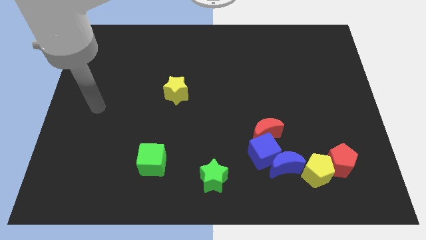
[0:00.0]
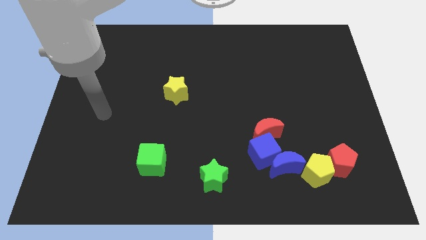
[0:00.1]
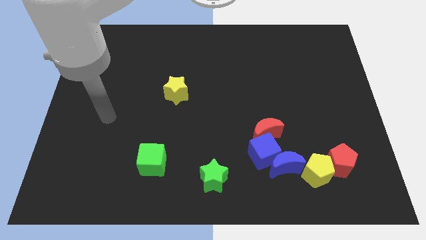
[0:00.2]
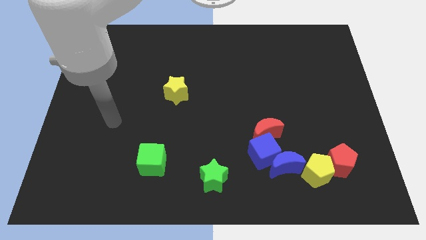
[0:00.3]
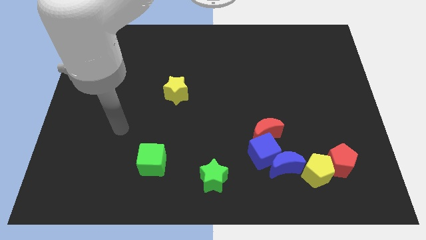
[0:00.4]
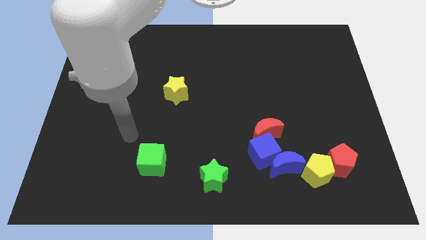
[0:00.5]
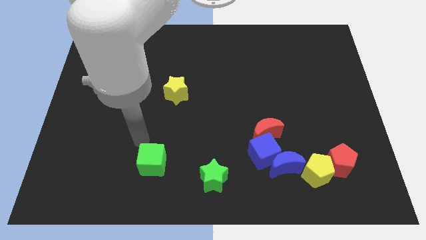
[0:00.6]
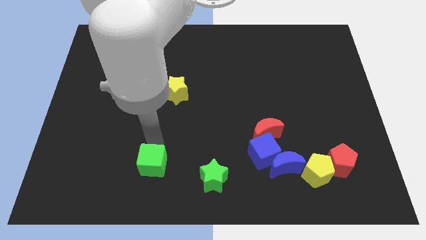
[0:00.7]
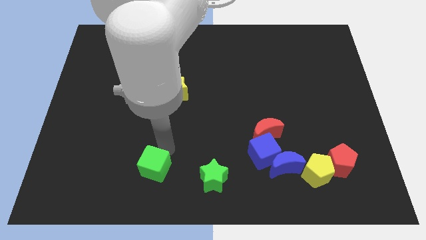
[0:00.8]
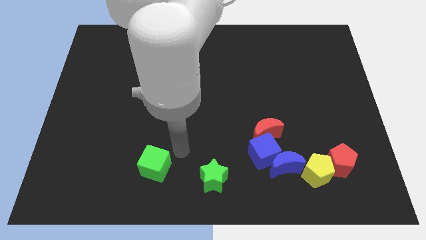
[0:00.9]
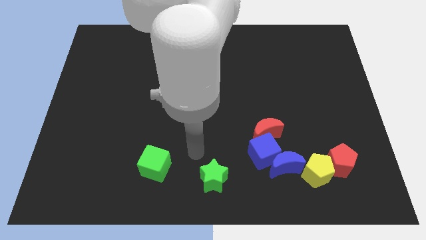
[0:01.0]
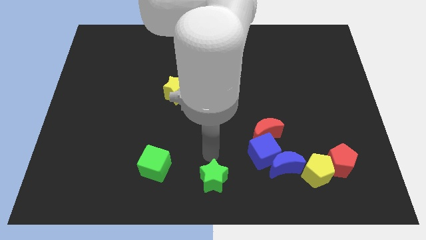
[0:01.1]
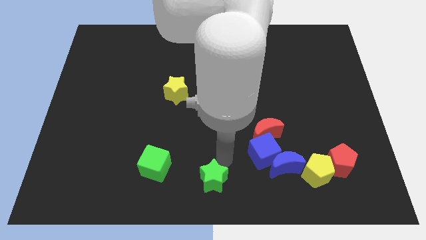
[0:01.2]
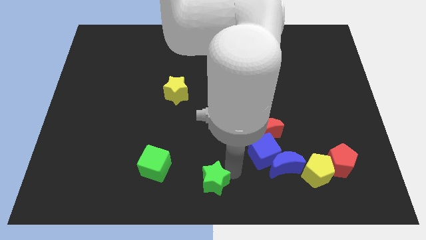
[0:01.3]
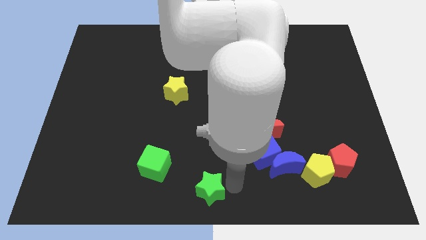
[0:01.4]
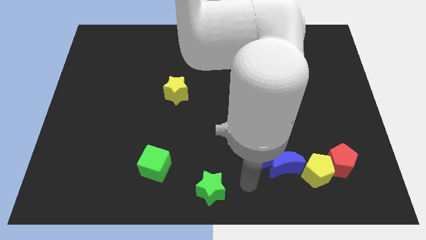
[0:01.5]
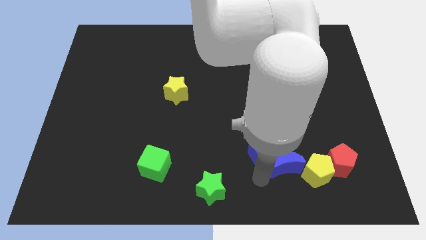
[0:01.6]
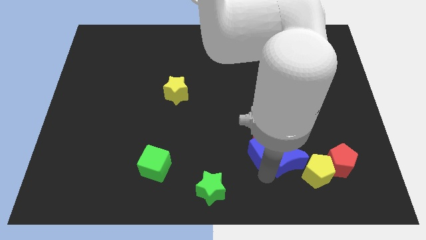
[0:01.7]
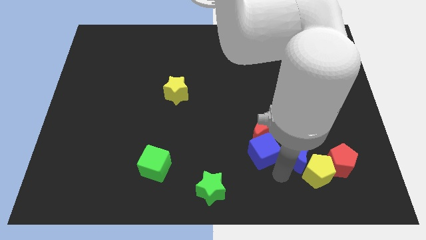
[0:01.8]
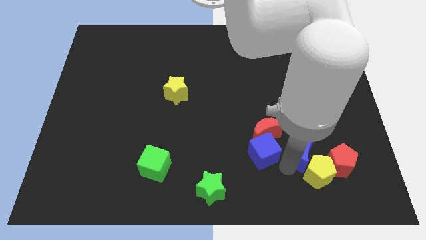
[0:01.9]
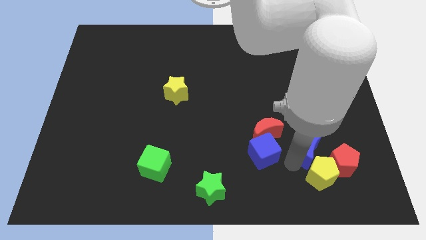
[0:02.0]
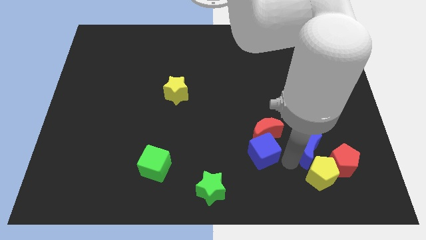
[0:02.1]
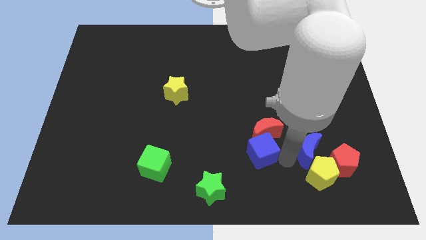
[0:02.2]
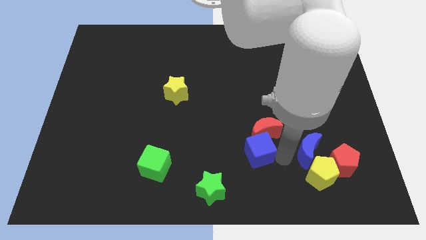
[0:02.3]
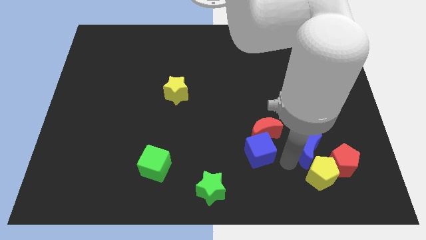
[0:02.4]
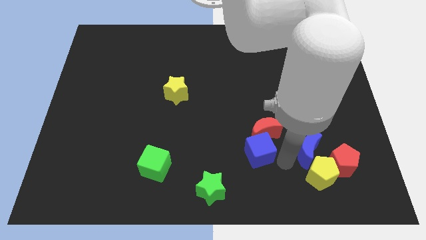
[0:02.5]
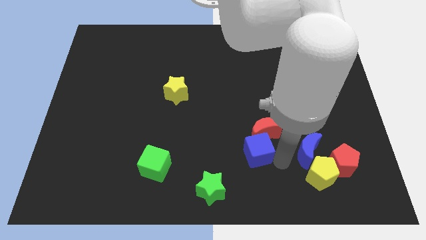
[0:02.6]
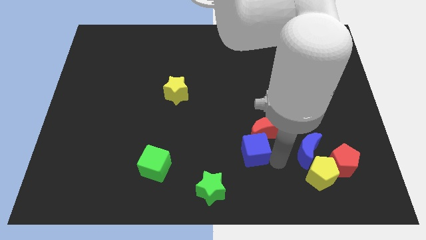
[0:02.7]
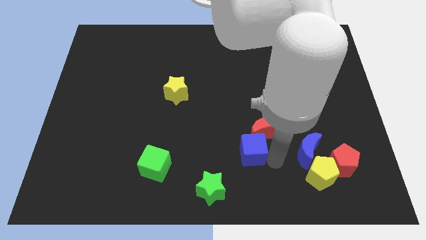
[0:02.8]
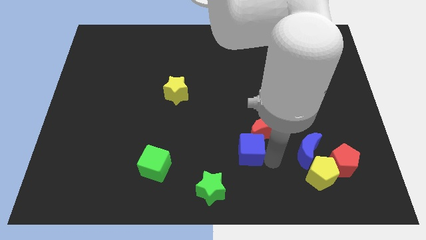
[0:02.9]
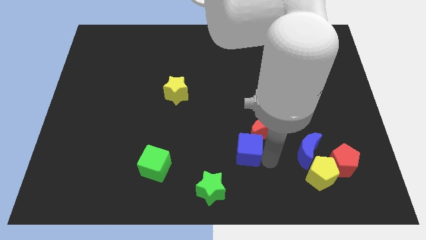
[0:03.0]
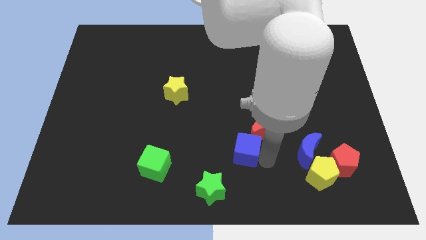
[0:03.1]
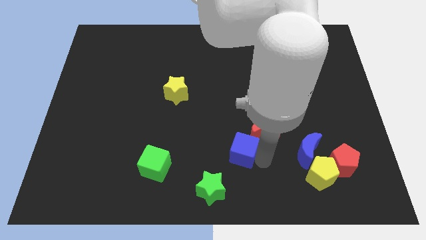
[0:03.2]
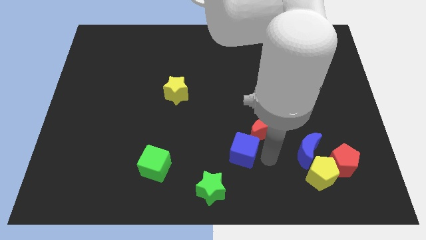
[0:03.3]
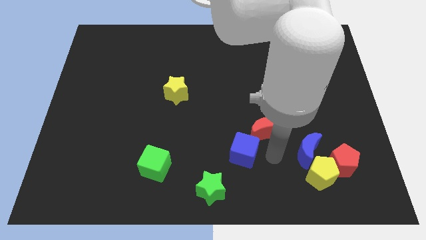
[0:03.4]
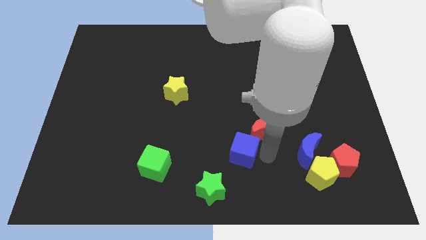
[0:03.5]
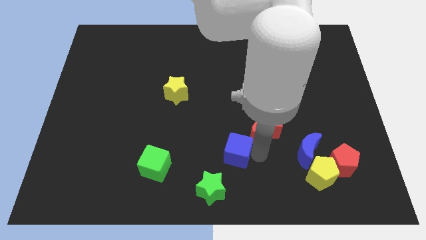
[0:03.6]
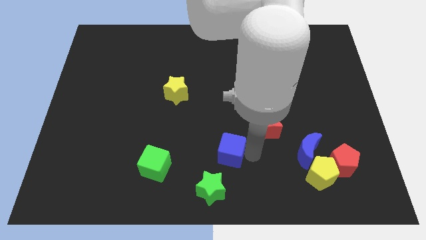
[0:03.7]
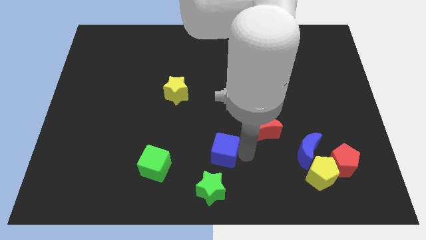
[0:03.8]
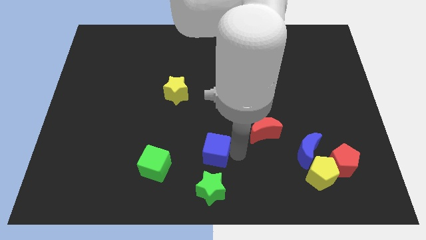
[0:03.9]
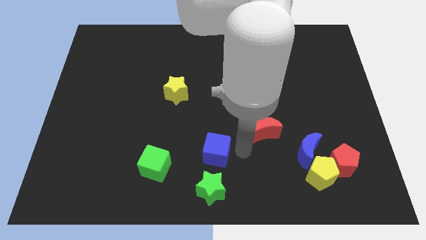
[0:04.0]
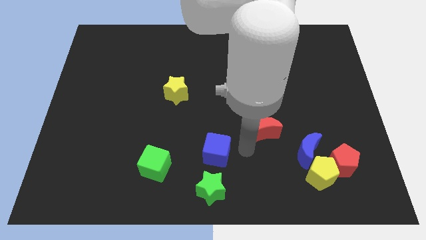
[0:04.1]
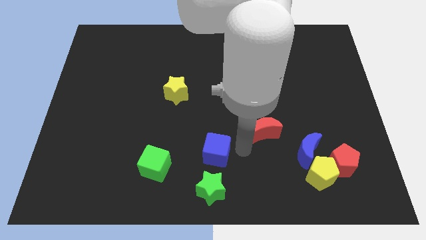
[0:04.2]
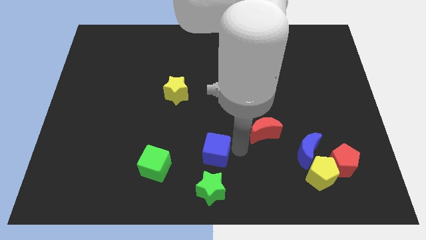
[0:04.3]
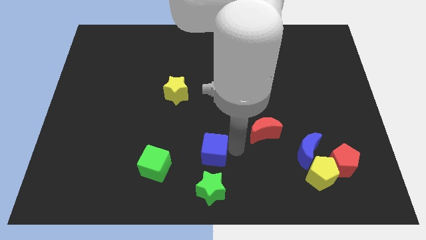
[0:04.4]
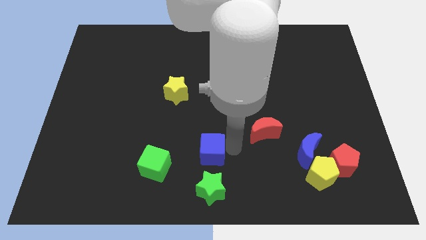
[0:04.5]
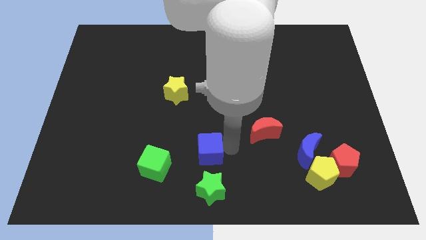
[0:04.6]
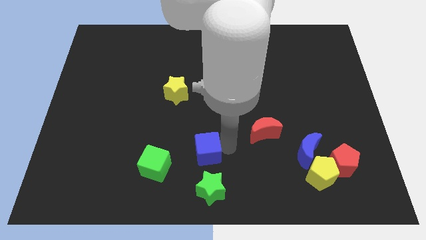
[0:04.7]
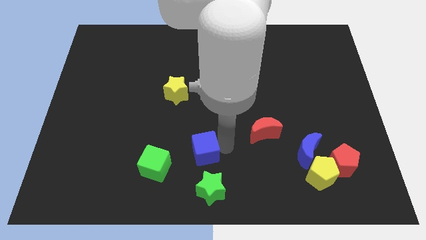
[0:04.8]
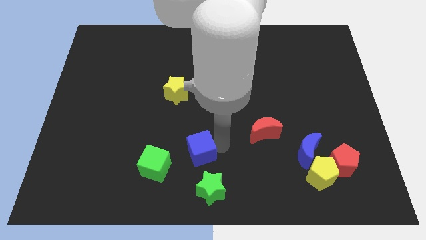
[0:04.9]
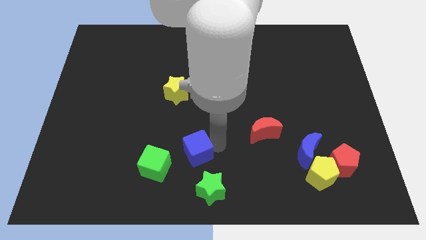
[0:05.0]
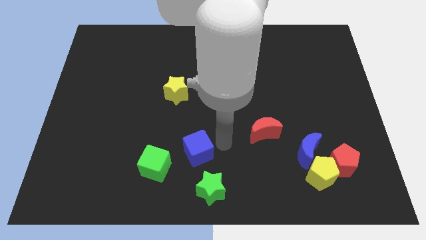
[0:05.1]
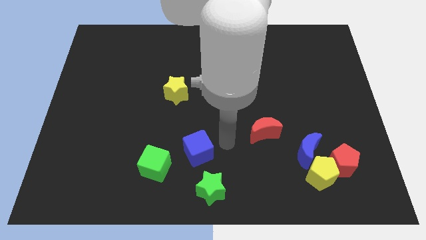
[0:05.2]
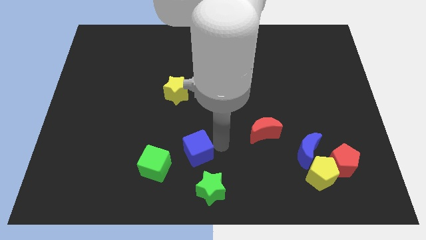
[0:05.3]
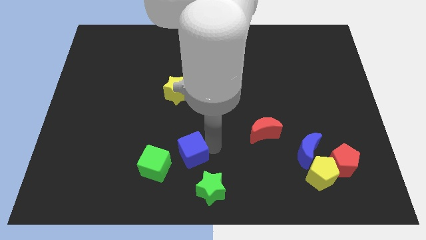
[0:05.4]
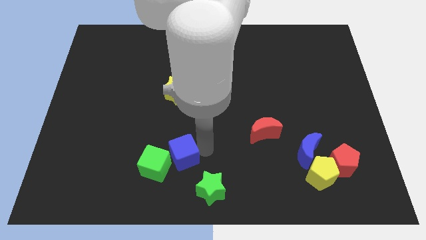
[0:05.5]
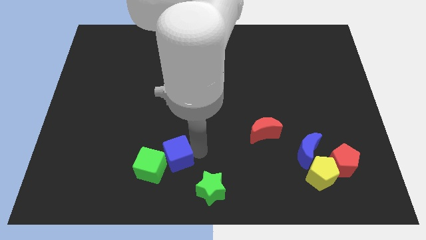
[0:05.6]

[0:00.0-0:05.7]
slide the blue cube towards the green cube

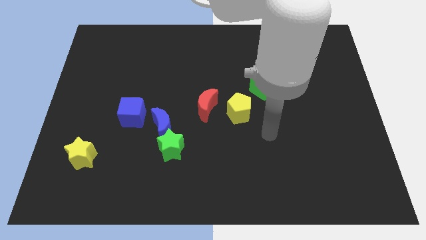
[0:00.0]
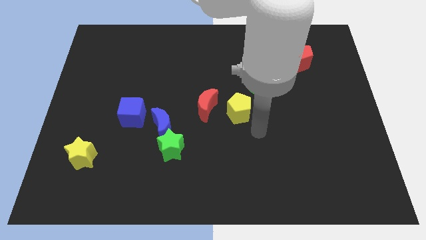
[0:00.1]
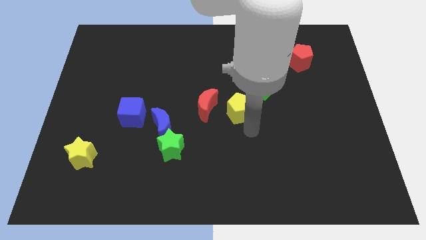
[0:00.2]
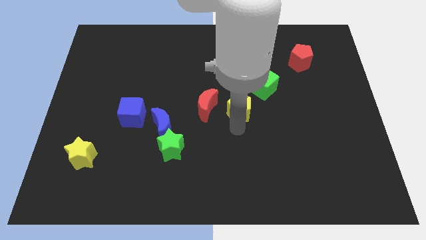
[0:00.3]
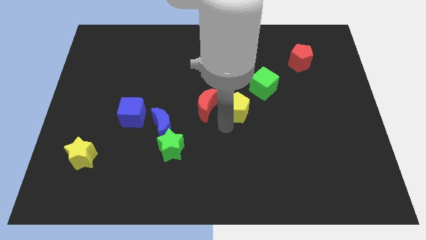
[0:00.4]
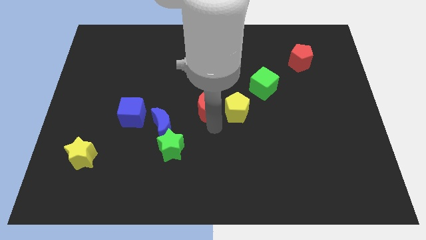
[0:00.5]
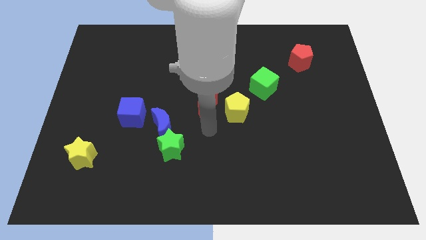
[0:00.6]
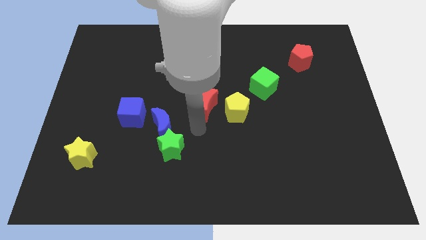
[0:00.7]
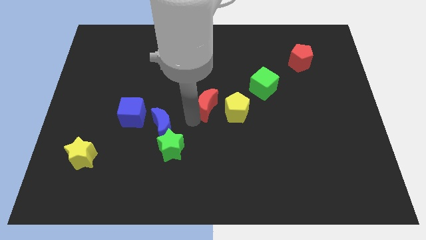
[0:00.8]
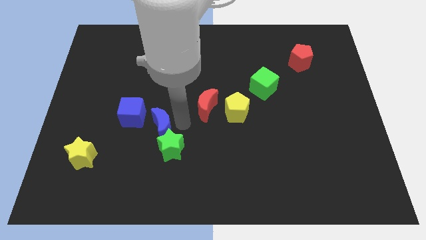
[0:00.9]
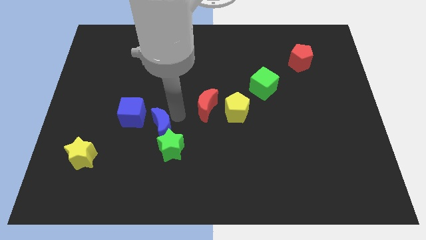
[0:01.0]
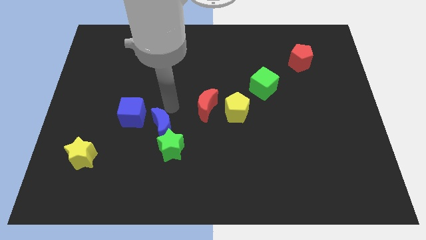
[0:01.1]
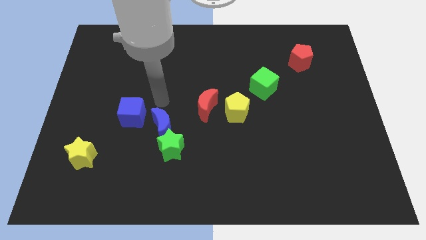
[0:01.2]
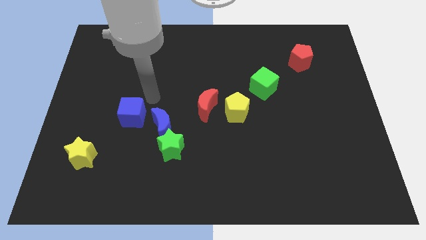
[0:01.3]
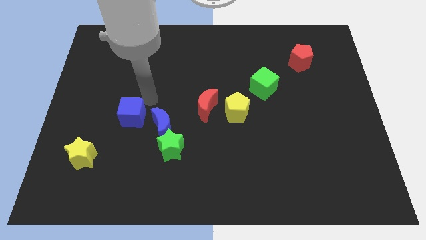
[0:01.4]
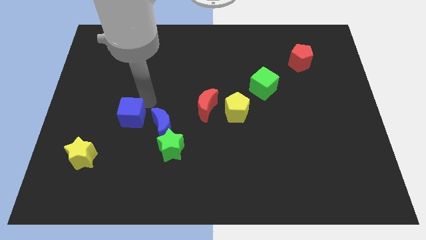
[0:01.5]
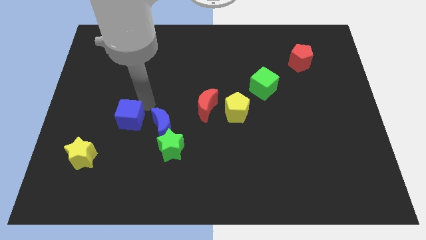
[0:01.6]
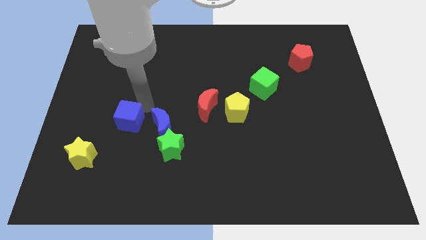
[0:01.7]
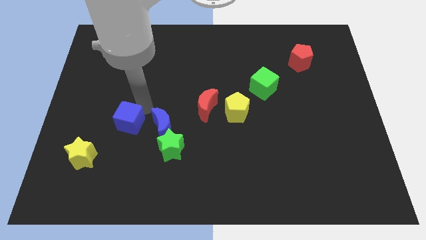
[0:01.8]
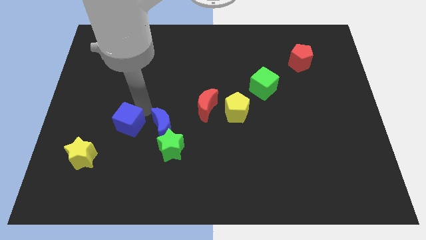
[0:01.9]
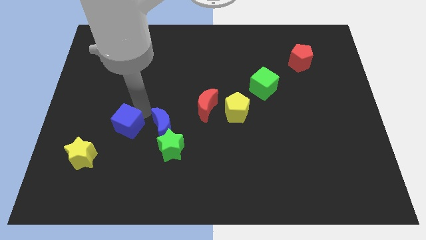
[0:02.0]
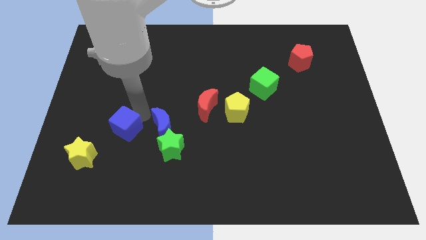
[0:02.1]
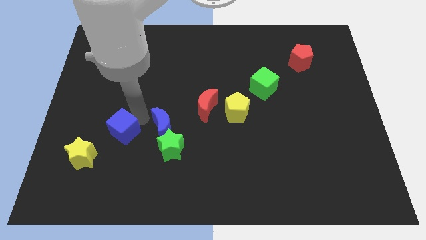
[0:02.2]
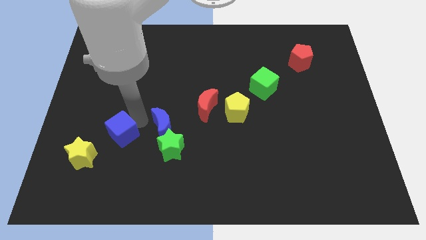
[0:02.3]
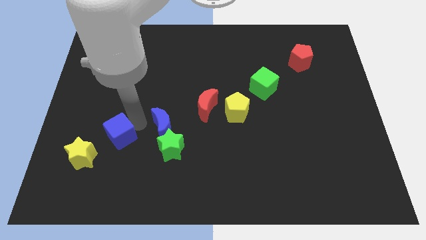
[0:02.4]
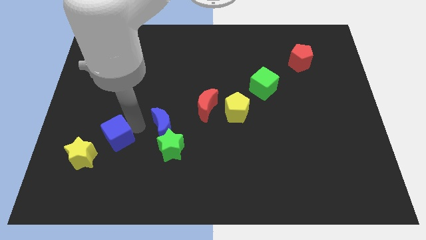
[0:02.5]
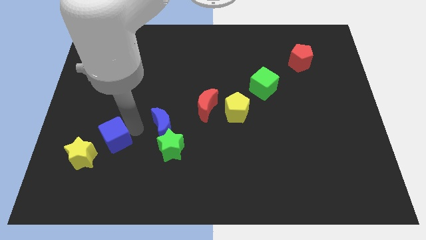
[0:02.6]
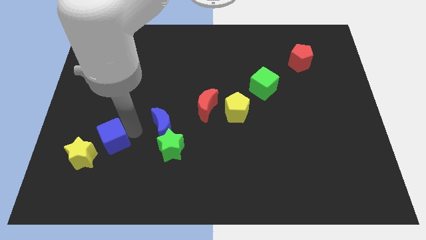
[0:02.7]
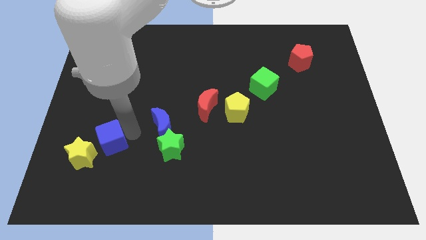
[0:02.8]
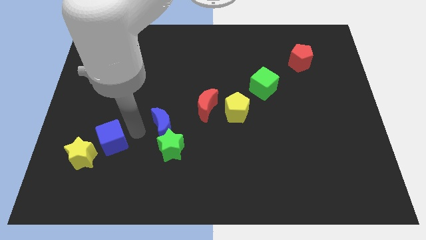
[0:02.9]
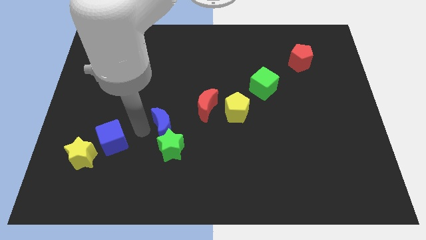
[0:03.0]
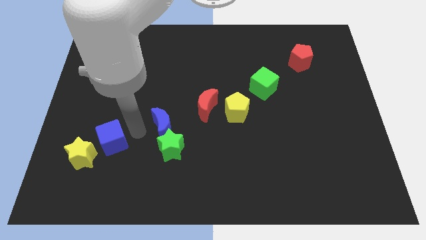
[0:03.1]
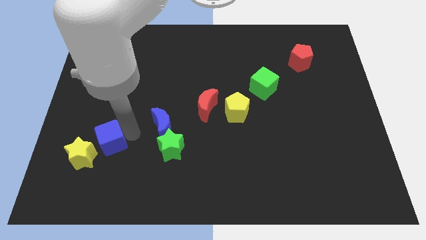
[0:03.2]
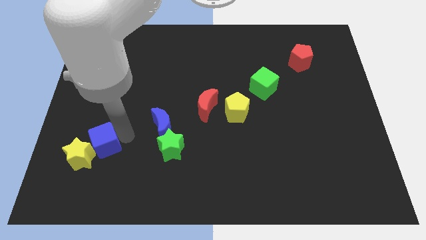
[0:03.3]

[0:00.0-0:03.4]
slide the blue cube close to the yellow star
